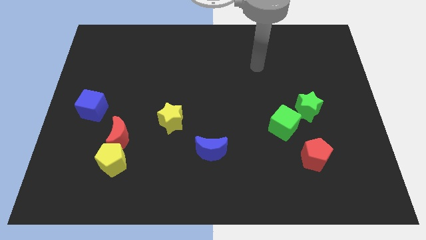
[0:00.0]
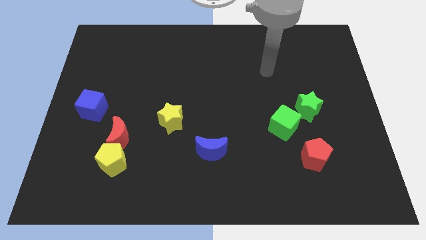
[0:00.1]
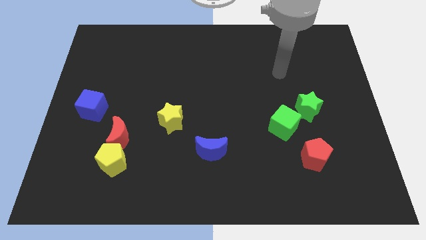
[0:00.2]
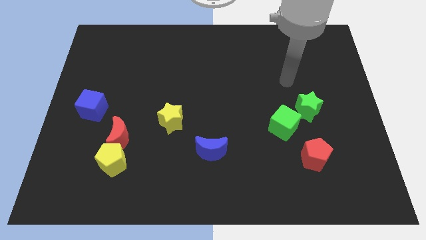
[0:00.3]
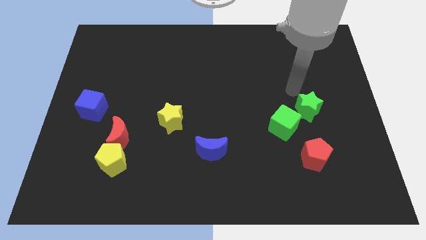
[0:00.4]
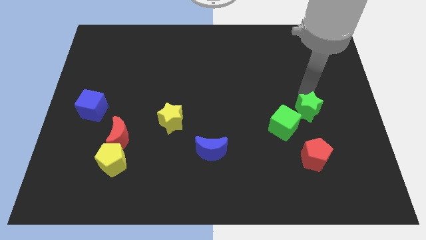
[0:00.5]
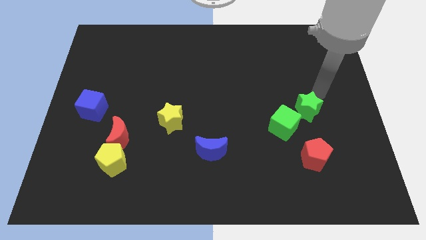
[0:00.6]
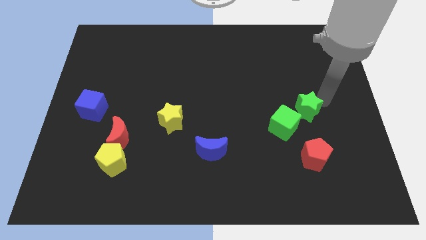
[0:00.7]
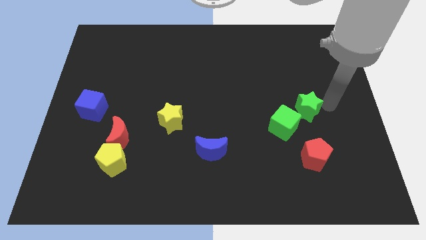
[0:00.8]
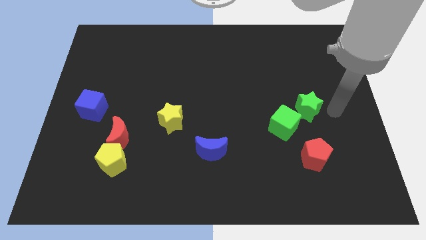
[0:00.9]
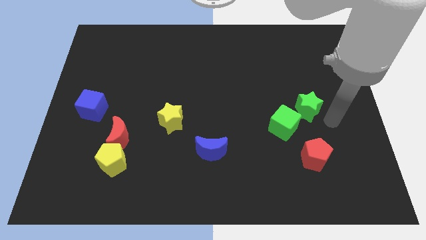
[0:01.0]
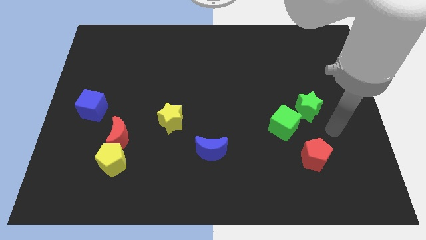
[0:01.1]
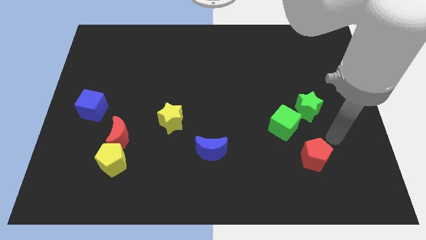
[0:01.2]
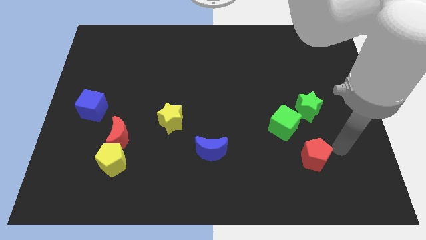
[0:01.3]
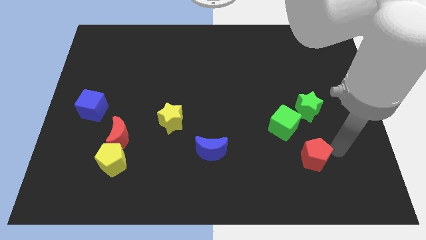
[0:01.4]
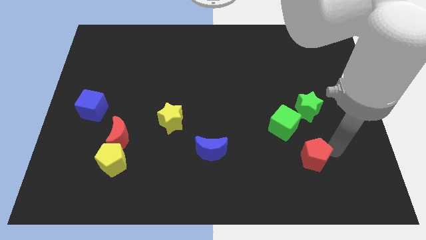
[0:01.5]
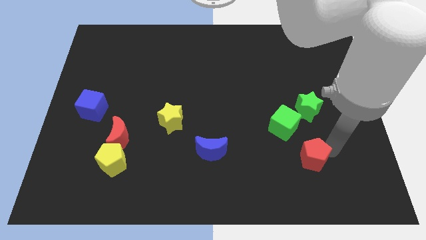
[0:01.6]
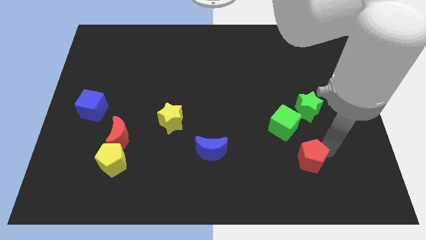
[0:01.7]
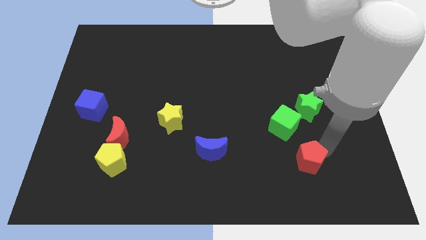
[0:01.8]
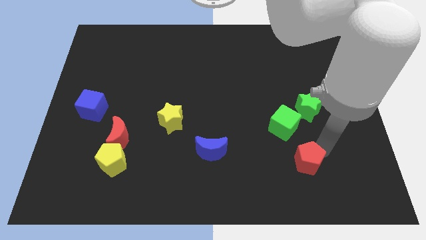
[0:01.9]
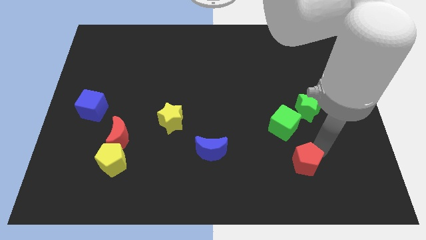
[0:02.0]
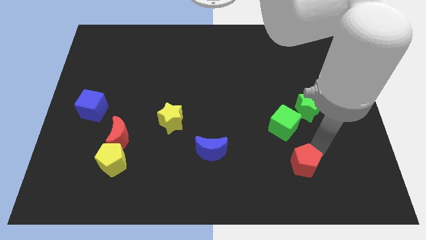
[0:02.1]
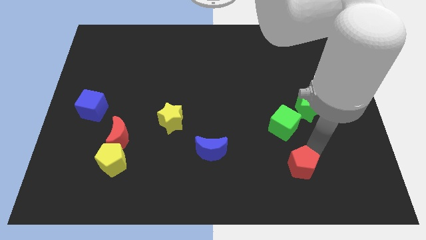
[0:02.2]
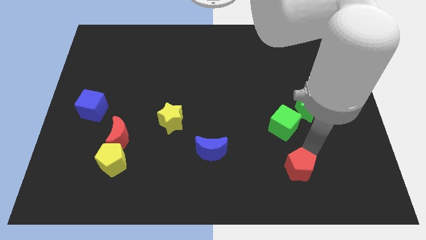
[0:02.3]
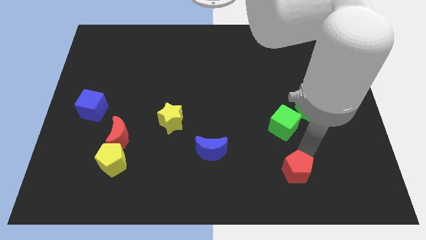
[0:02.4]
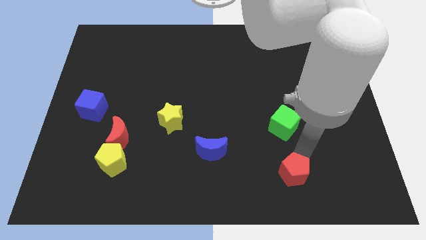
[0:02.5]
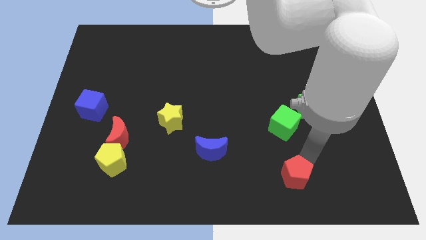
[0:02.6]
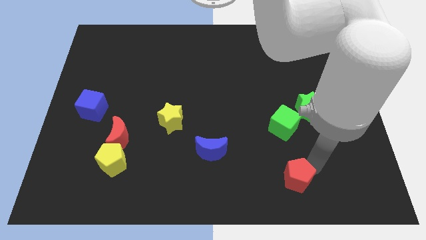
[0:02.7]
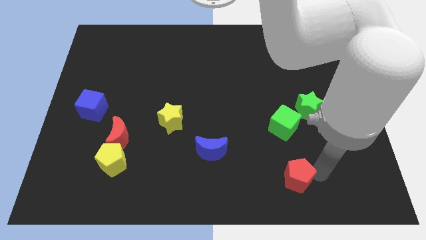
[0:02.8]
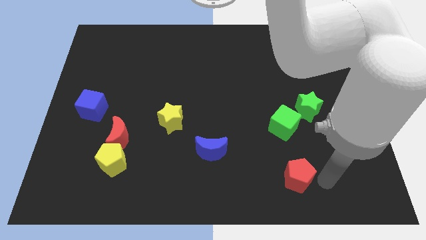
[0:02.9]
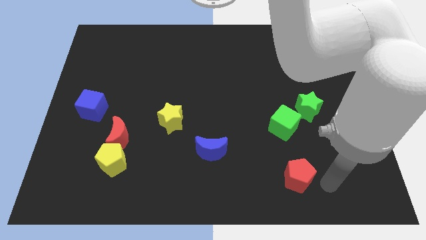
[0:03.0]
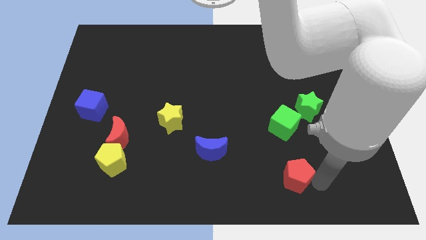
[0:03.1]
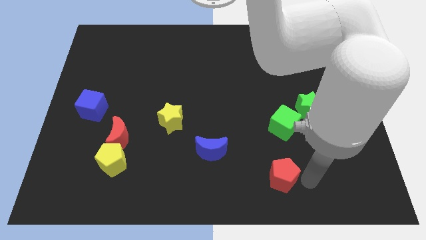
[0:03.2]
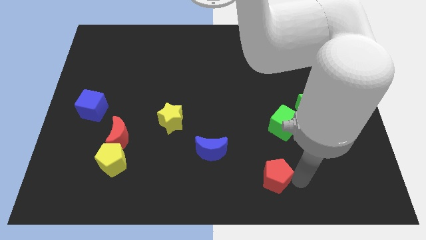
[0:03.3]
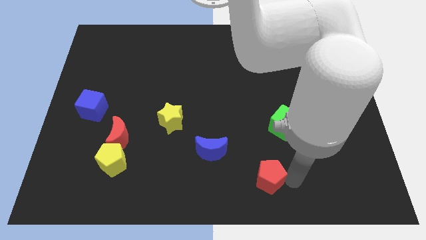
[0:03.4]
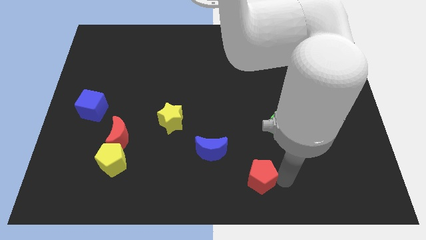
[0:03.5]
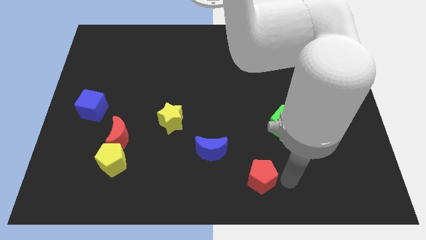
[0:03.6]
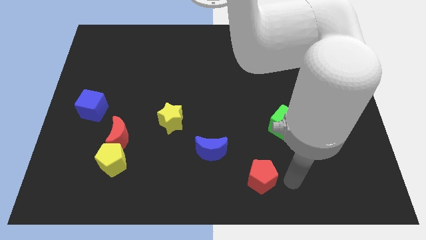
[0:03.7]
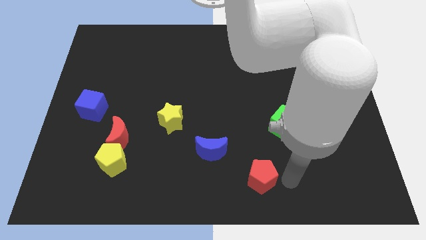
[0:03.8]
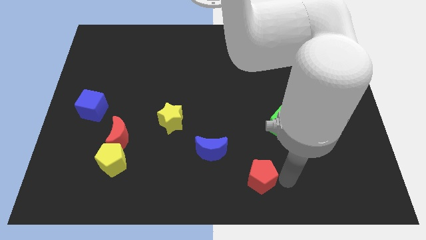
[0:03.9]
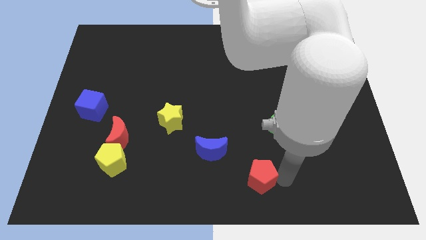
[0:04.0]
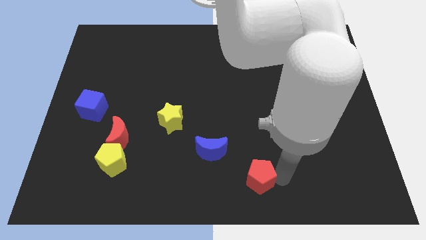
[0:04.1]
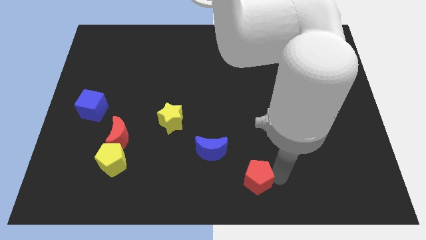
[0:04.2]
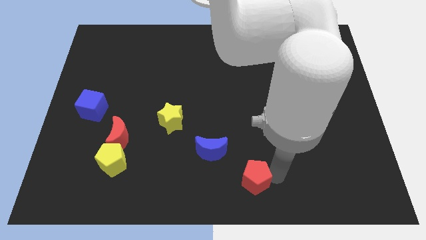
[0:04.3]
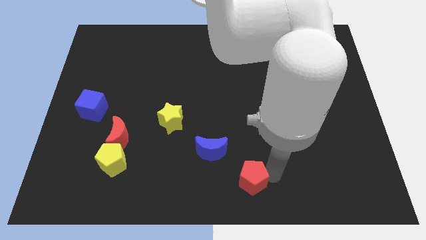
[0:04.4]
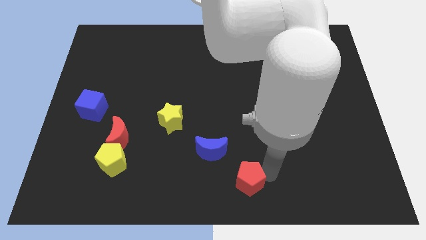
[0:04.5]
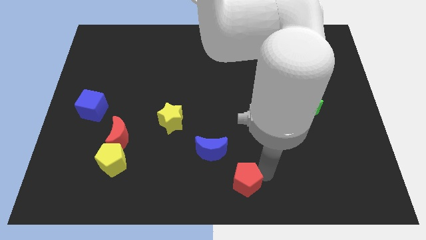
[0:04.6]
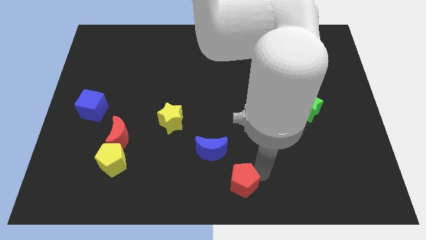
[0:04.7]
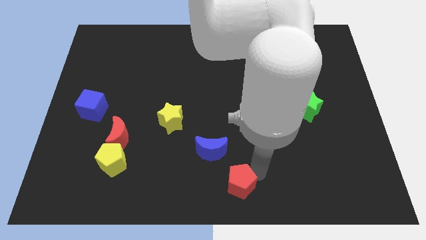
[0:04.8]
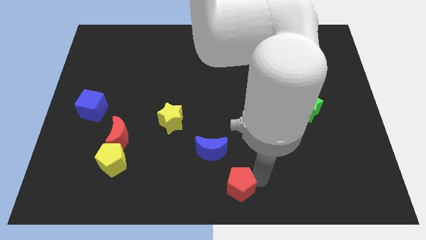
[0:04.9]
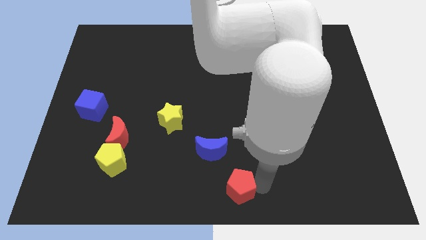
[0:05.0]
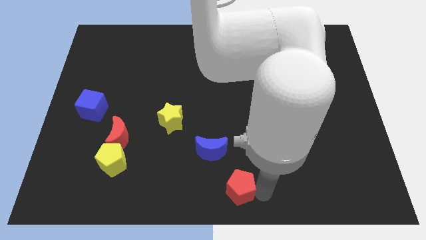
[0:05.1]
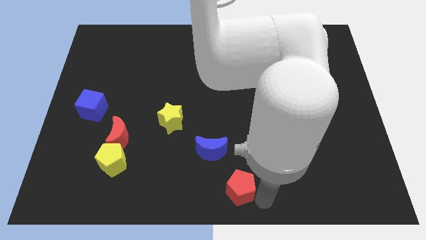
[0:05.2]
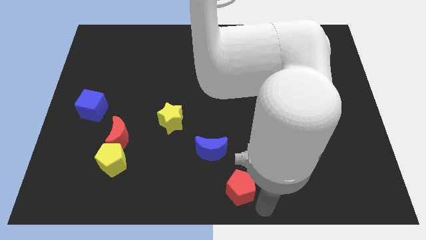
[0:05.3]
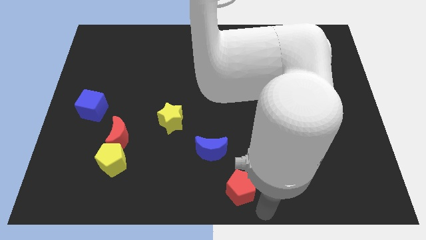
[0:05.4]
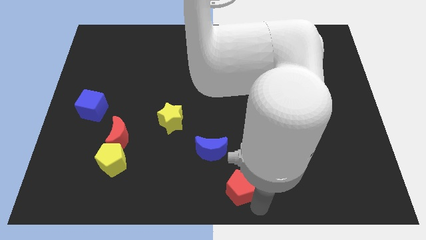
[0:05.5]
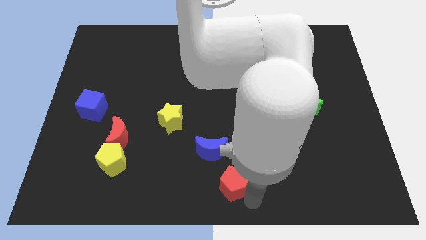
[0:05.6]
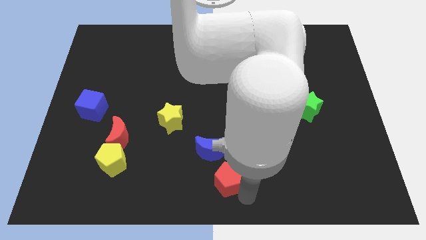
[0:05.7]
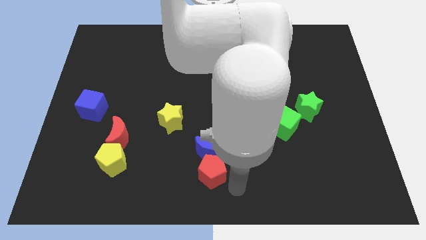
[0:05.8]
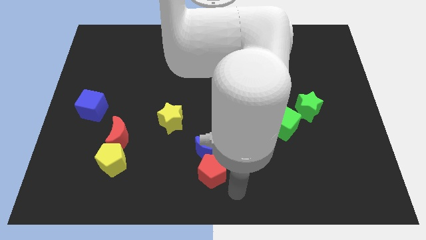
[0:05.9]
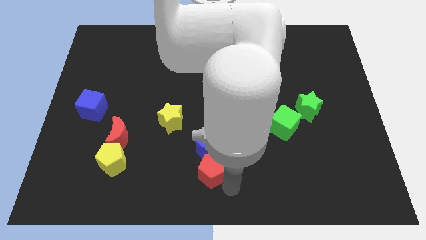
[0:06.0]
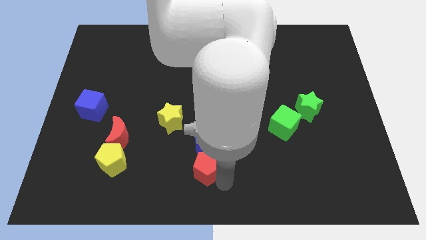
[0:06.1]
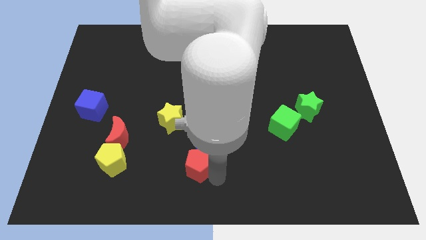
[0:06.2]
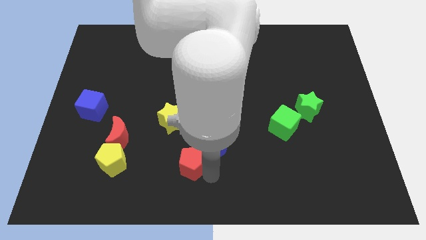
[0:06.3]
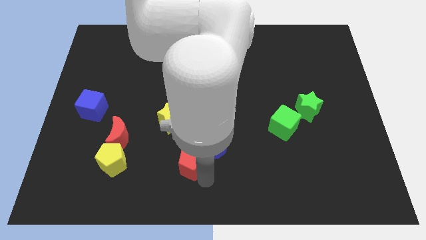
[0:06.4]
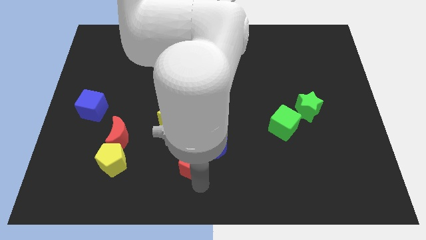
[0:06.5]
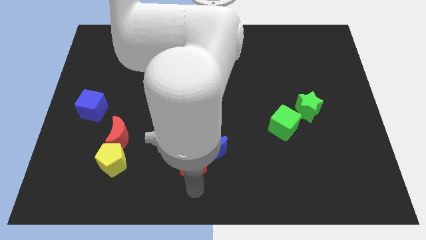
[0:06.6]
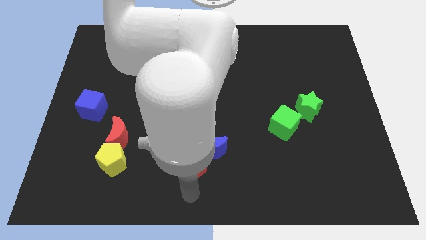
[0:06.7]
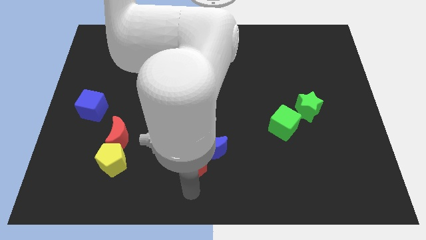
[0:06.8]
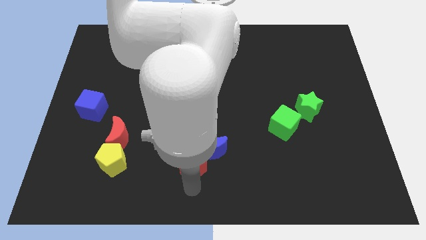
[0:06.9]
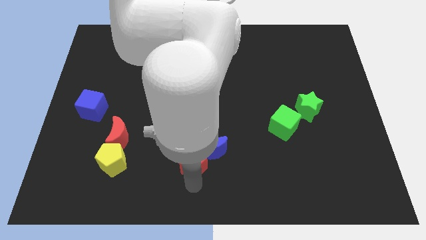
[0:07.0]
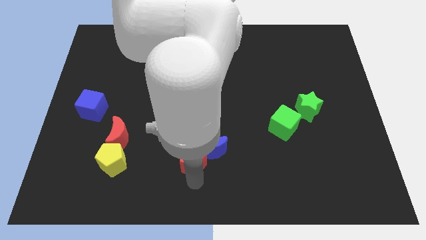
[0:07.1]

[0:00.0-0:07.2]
slide the red pentagon to the bottom right side of the yellow star

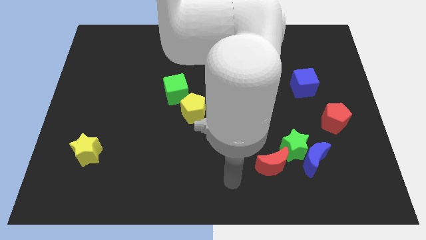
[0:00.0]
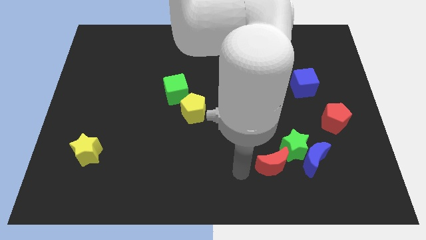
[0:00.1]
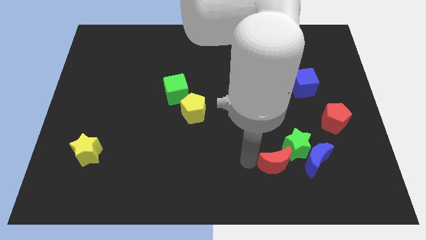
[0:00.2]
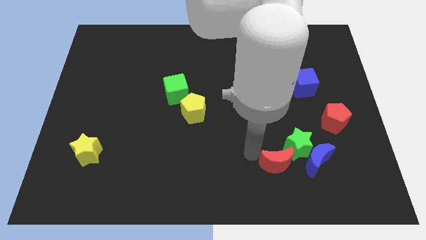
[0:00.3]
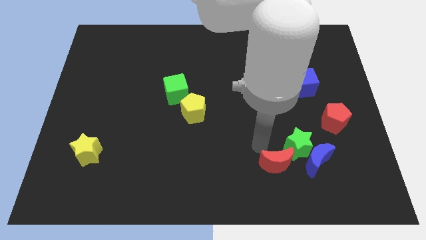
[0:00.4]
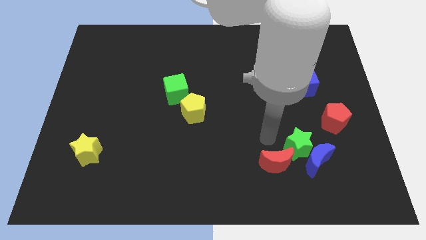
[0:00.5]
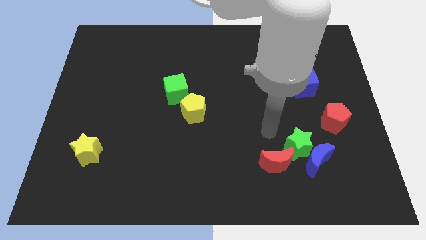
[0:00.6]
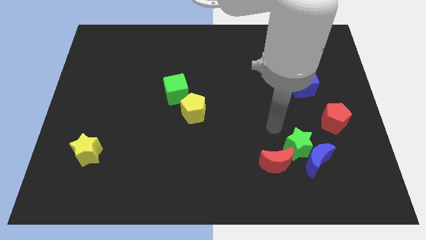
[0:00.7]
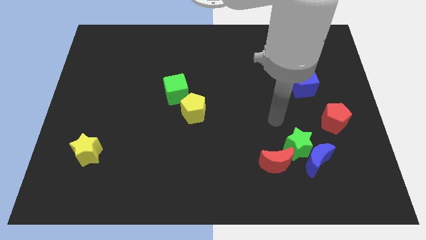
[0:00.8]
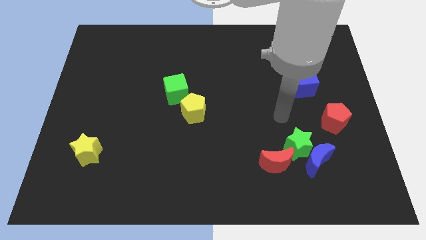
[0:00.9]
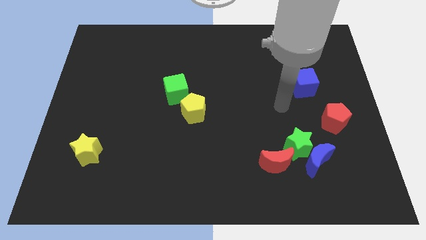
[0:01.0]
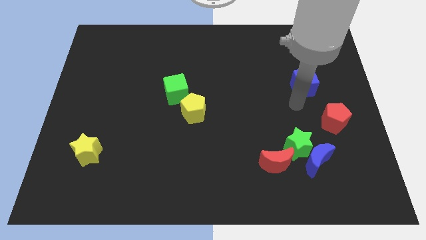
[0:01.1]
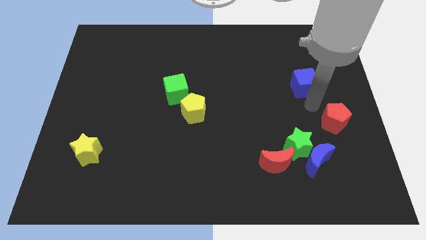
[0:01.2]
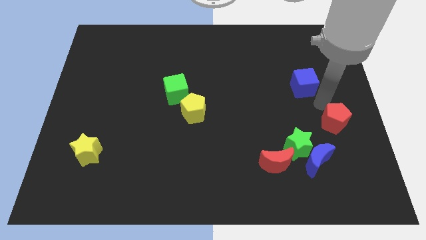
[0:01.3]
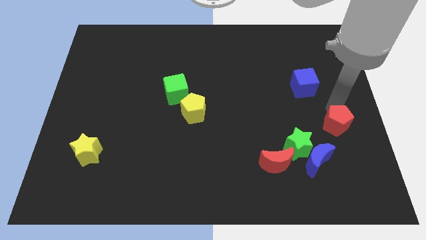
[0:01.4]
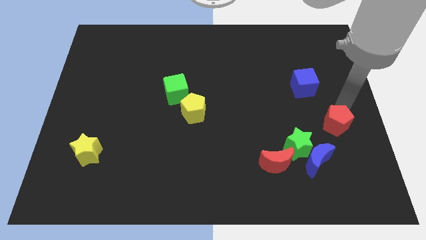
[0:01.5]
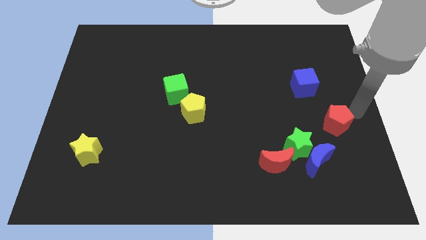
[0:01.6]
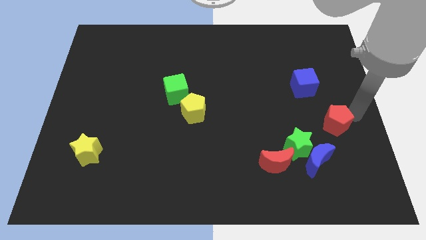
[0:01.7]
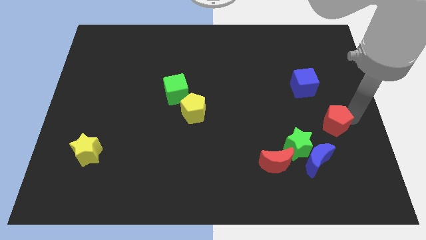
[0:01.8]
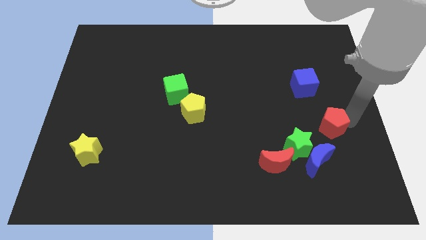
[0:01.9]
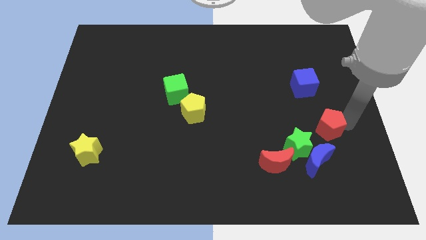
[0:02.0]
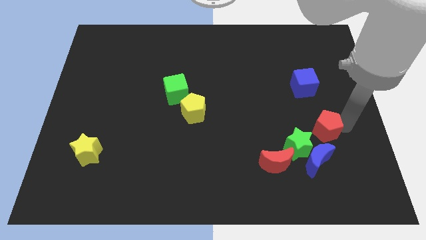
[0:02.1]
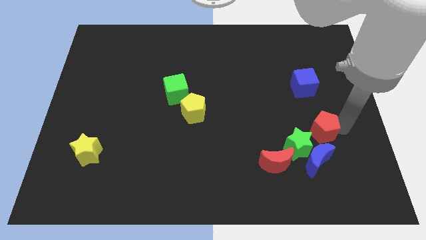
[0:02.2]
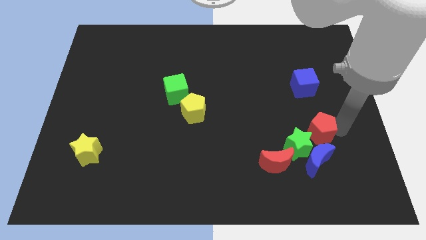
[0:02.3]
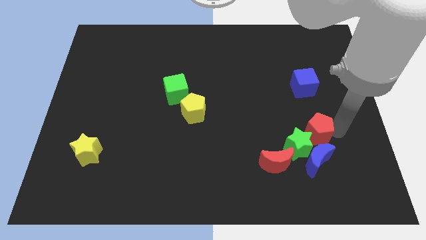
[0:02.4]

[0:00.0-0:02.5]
move the red pentagon diagonally up and to the right of the red moon
